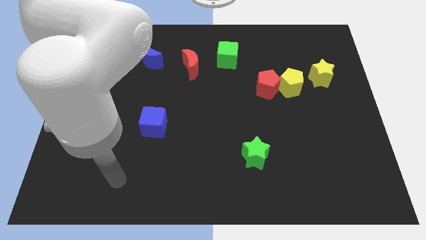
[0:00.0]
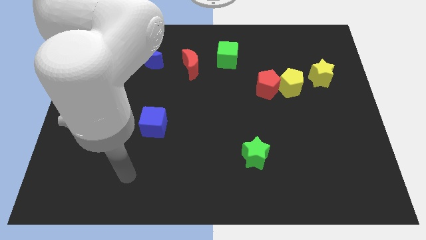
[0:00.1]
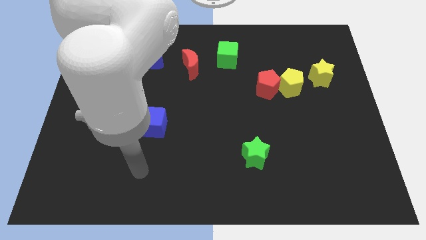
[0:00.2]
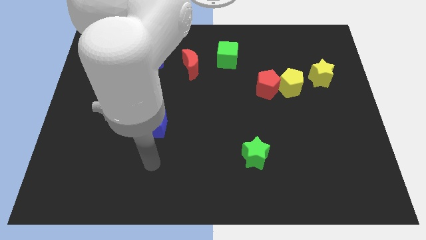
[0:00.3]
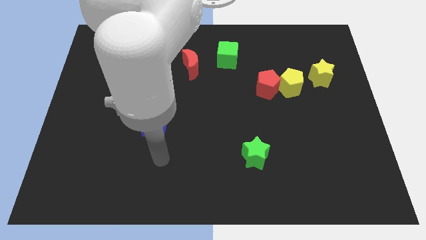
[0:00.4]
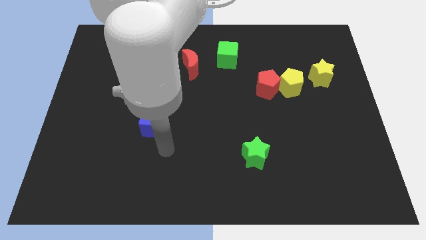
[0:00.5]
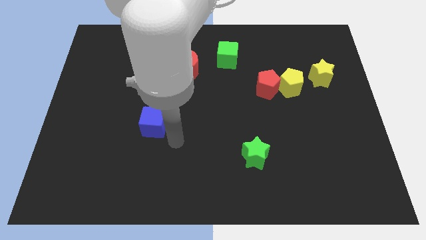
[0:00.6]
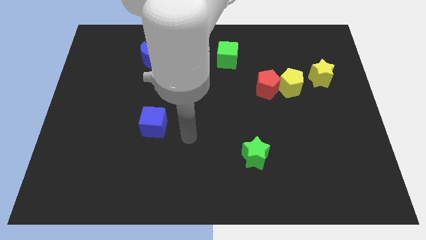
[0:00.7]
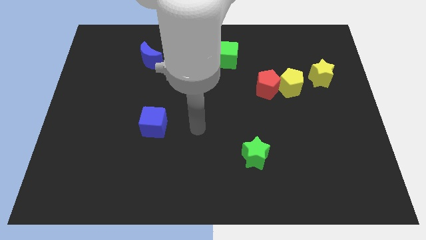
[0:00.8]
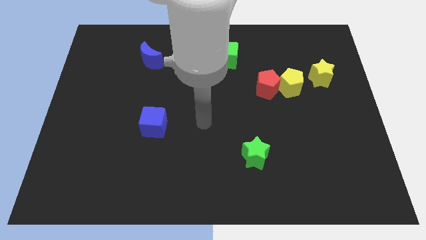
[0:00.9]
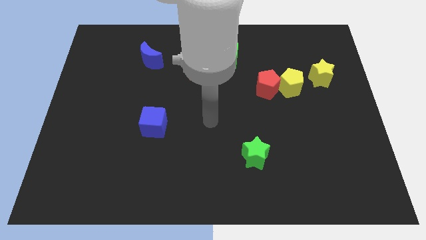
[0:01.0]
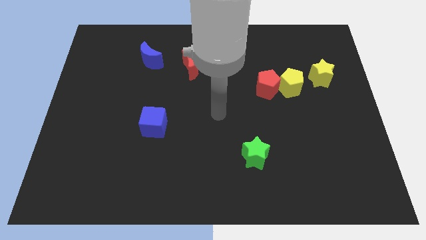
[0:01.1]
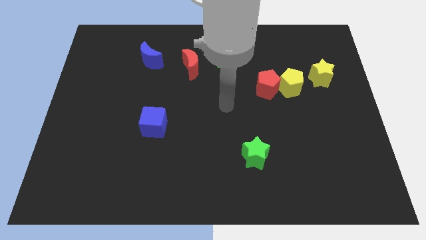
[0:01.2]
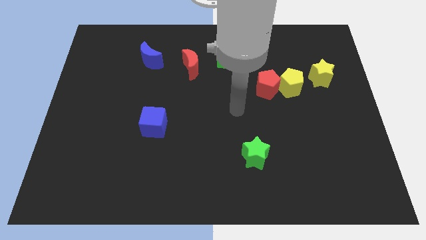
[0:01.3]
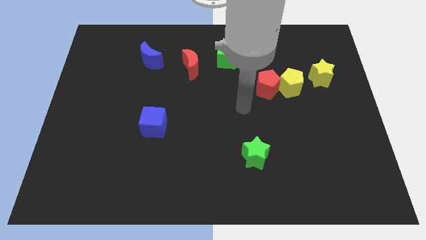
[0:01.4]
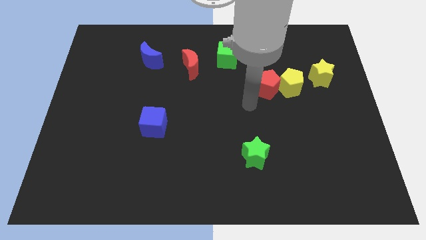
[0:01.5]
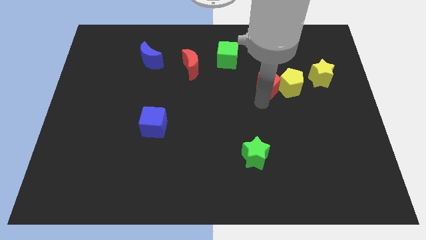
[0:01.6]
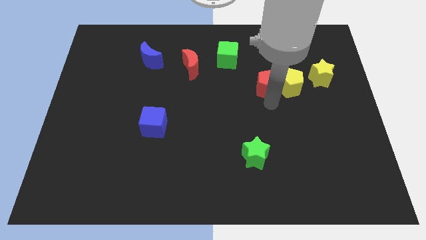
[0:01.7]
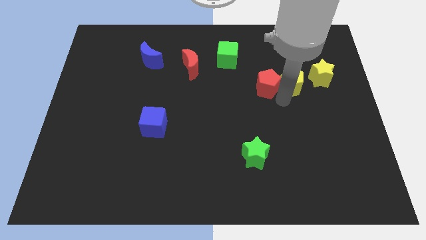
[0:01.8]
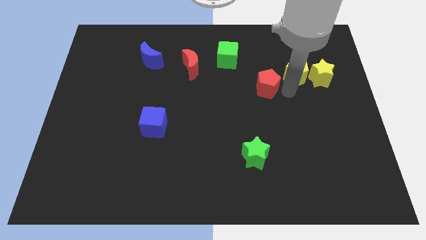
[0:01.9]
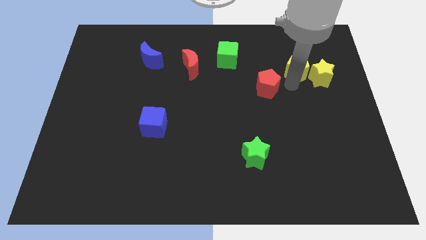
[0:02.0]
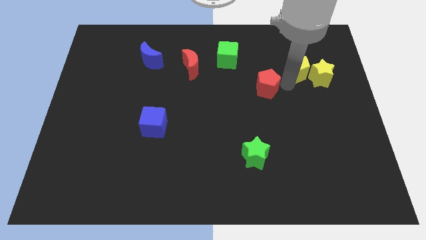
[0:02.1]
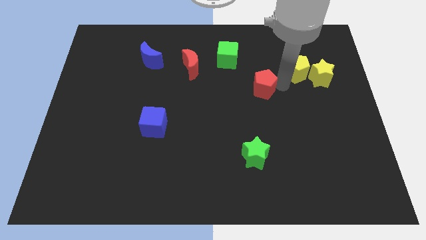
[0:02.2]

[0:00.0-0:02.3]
move the red pentagon away from the yellow pentagon

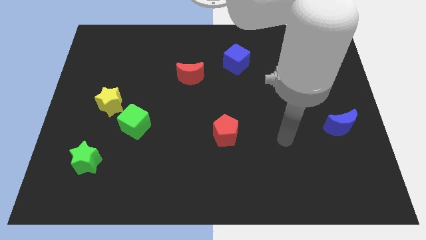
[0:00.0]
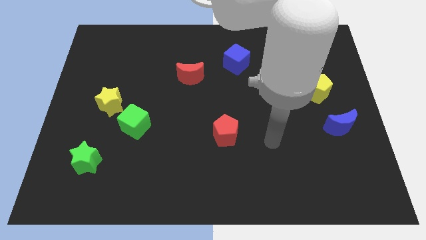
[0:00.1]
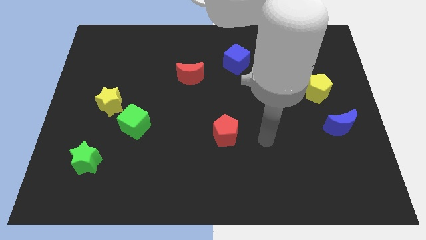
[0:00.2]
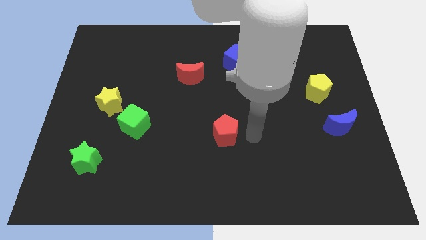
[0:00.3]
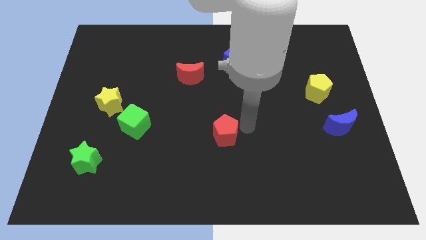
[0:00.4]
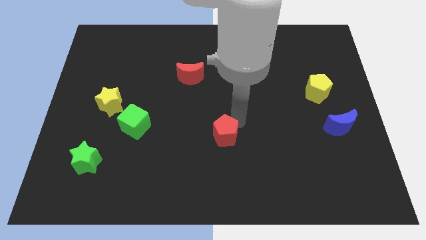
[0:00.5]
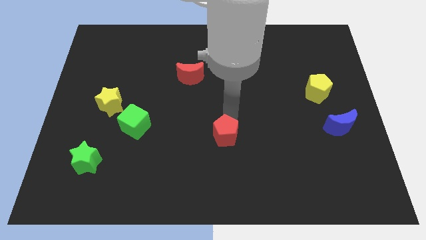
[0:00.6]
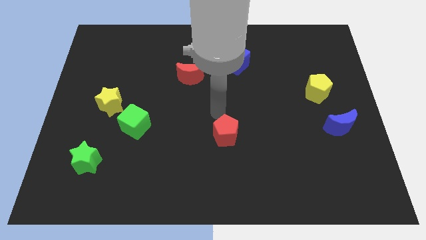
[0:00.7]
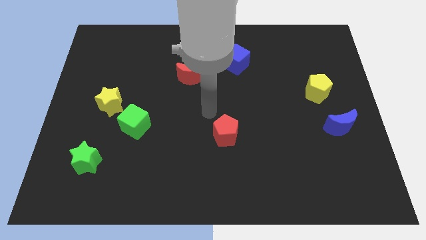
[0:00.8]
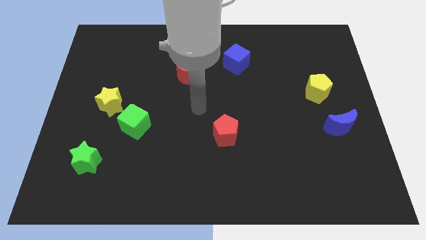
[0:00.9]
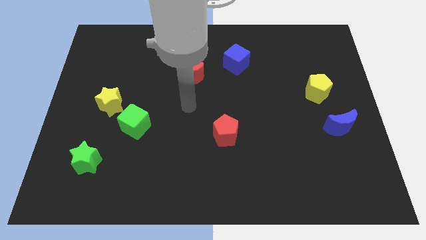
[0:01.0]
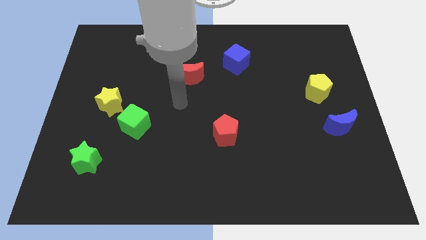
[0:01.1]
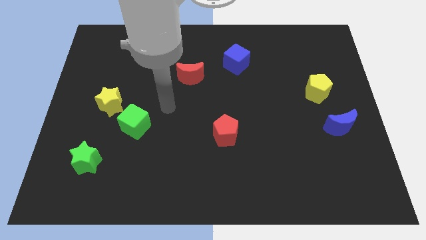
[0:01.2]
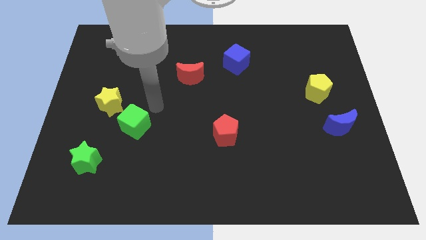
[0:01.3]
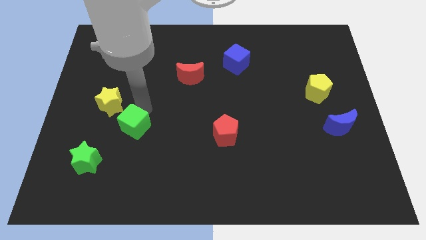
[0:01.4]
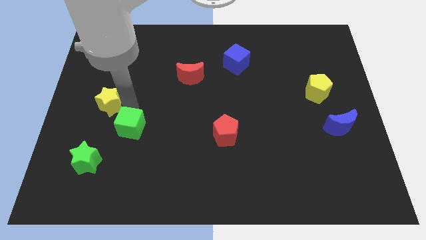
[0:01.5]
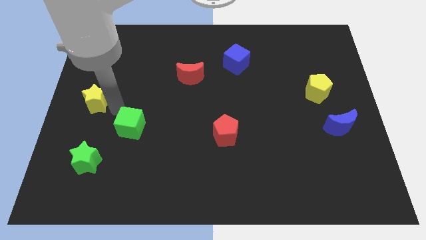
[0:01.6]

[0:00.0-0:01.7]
separate the green cube from the yellow star

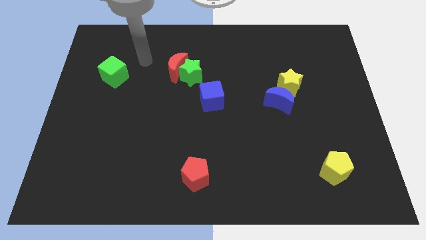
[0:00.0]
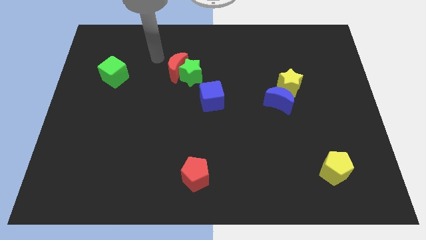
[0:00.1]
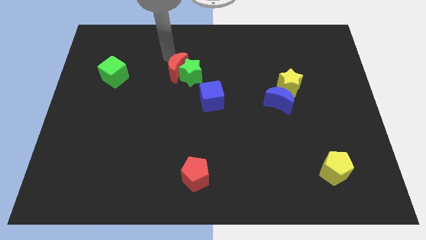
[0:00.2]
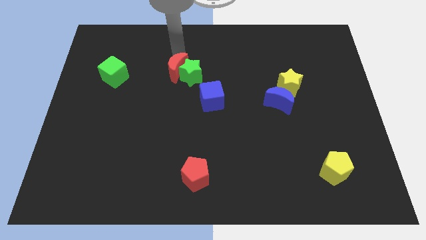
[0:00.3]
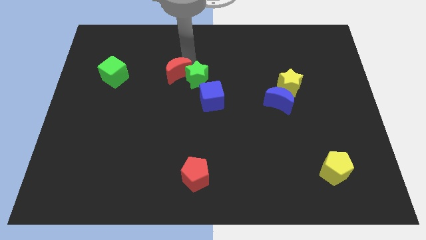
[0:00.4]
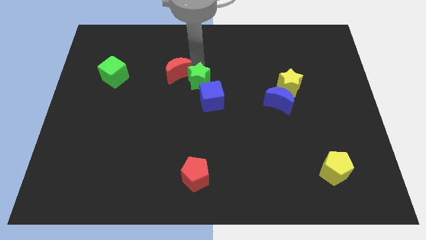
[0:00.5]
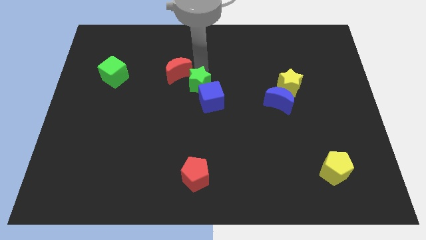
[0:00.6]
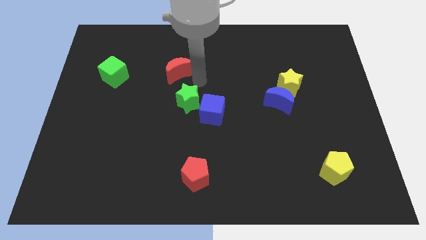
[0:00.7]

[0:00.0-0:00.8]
pull the red moon apart from the green star

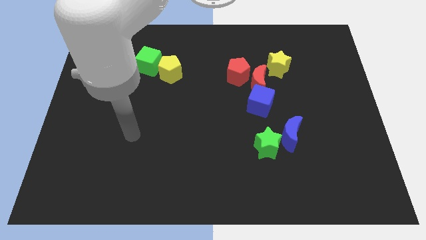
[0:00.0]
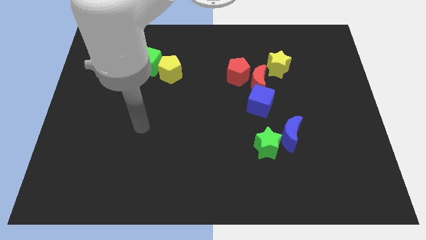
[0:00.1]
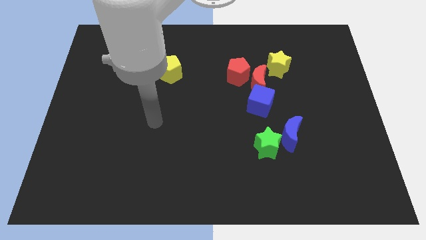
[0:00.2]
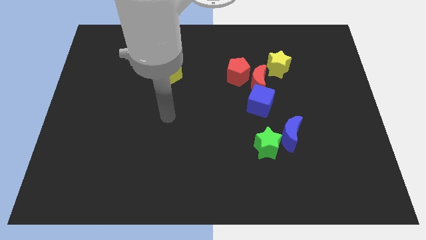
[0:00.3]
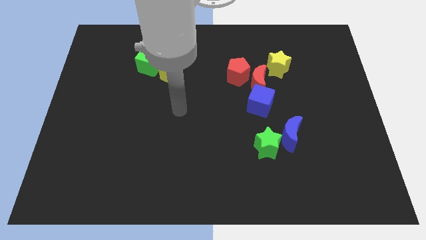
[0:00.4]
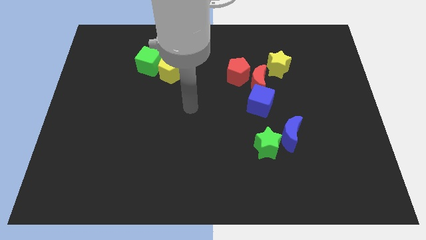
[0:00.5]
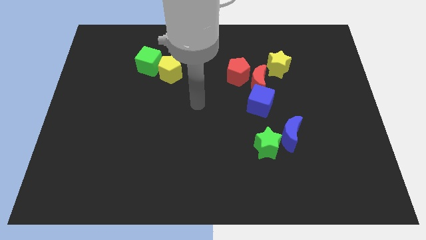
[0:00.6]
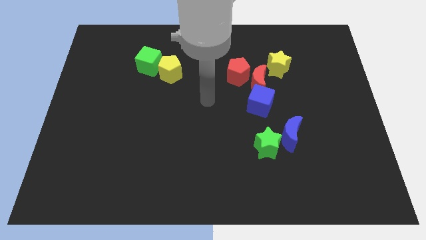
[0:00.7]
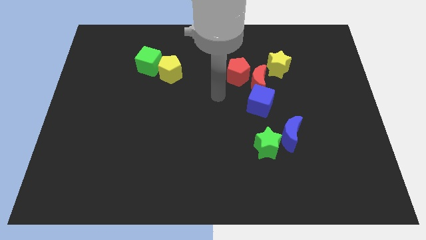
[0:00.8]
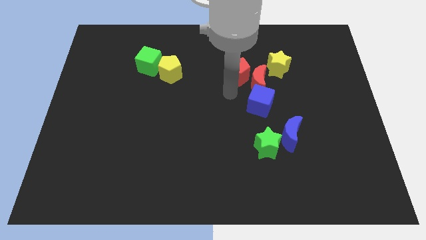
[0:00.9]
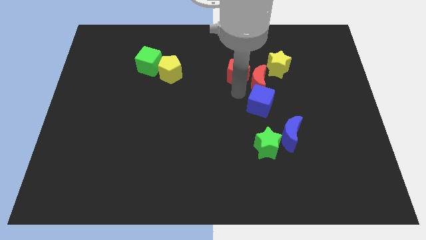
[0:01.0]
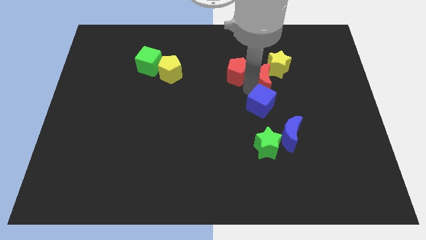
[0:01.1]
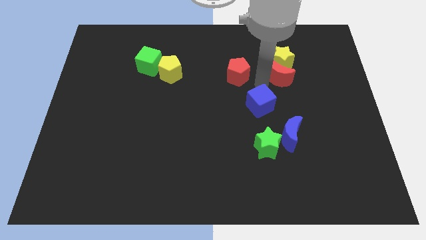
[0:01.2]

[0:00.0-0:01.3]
move the red pentagon away from the red moon

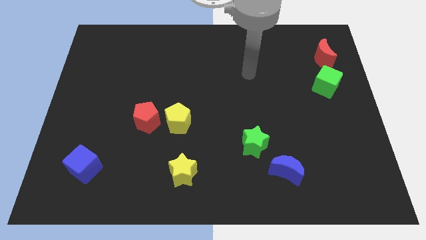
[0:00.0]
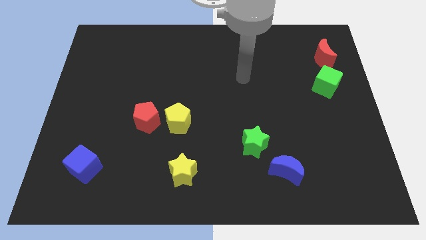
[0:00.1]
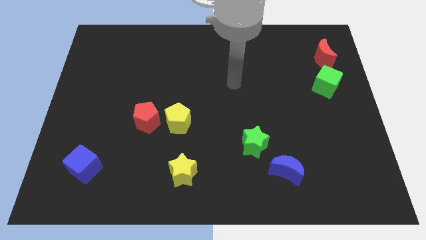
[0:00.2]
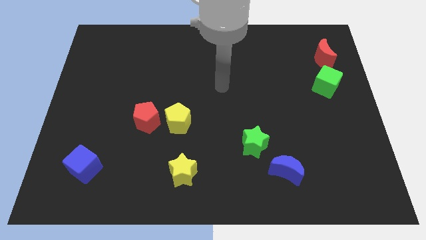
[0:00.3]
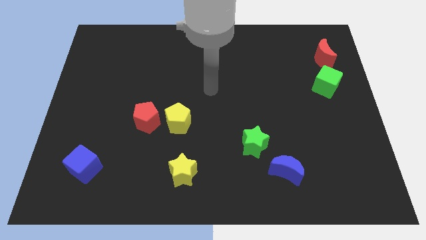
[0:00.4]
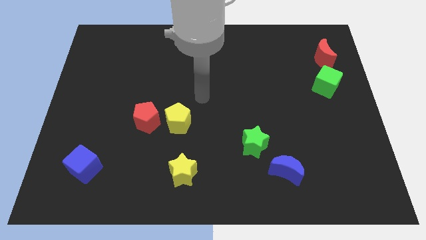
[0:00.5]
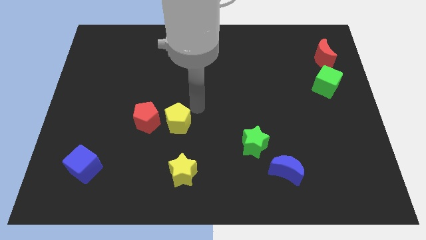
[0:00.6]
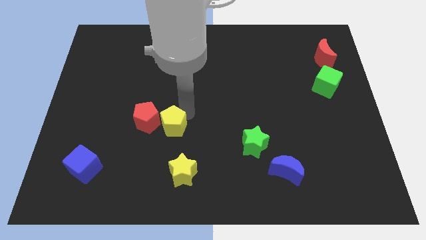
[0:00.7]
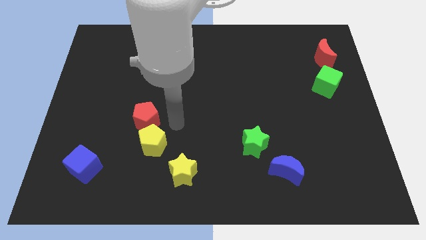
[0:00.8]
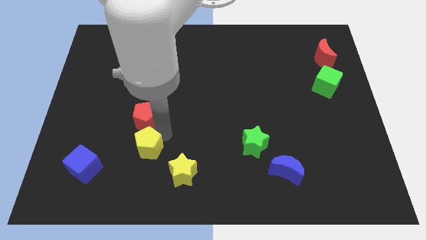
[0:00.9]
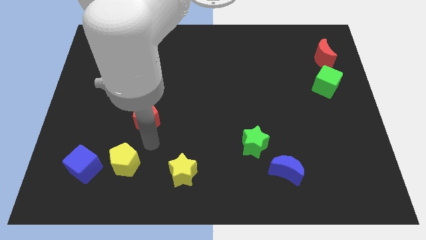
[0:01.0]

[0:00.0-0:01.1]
separate the red pentagon from the yellow pentagon

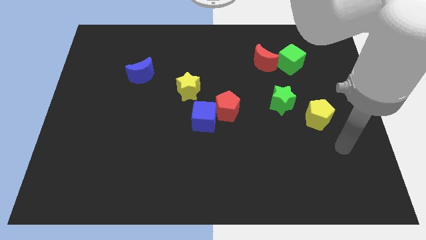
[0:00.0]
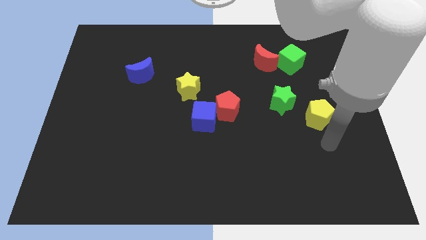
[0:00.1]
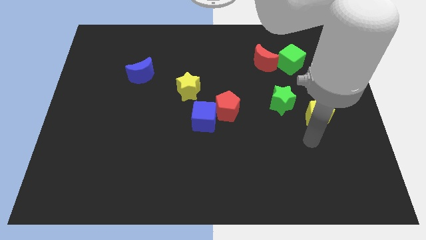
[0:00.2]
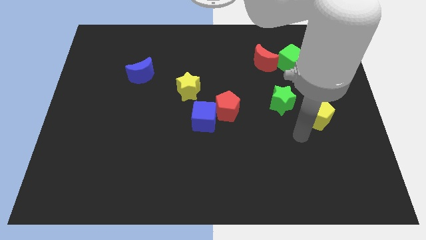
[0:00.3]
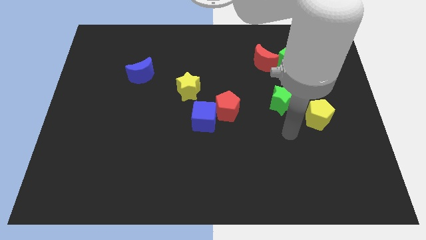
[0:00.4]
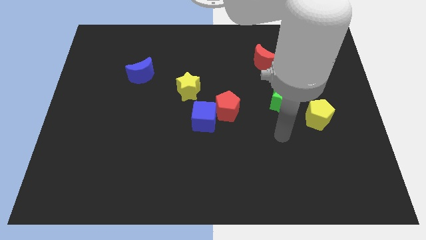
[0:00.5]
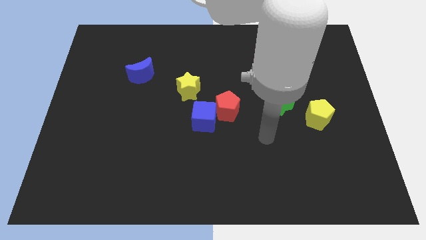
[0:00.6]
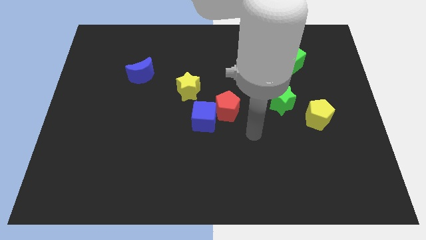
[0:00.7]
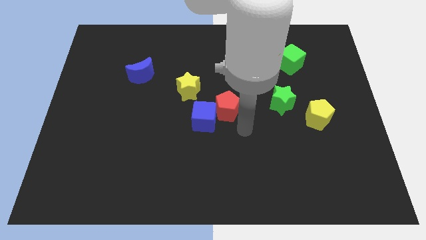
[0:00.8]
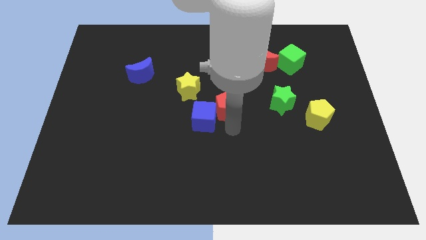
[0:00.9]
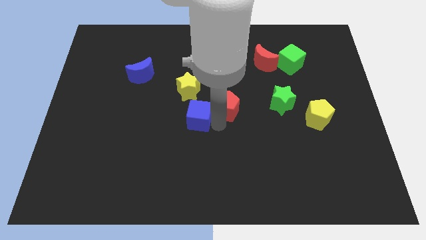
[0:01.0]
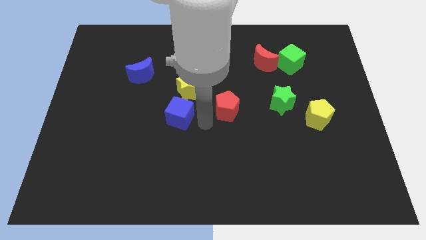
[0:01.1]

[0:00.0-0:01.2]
pull the red pentagon apart from the blue cube

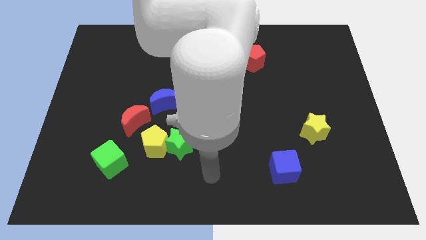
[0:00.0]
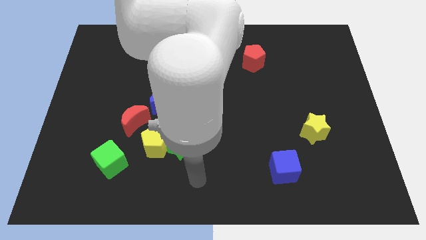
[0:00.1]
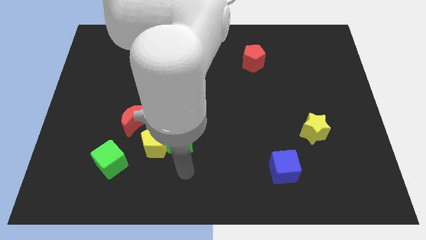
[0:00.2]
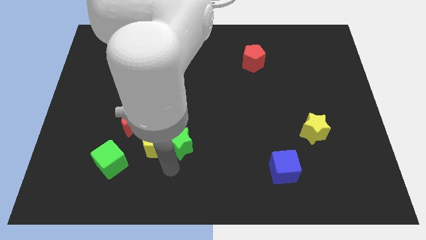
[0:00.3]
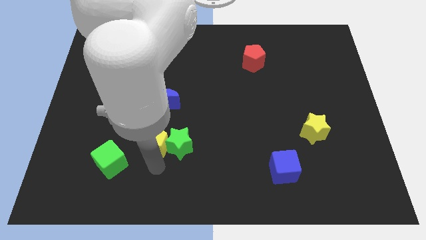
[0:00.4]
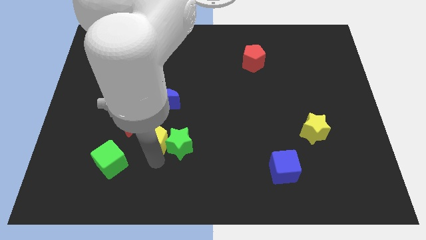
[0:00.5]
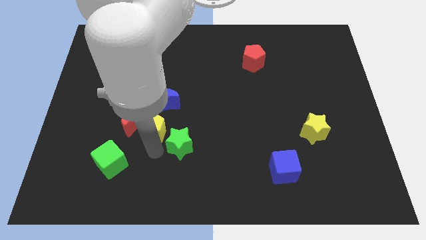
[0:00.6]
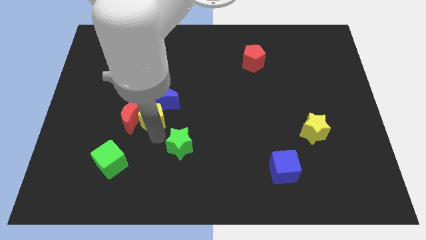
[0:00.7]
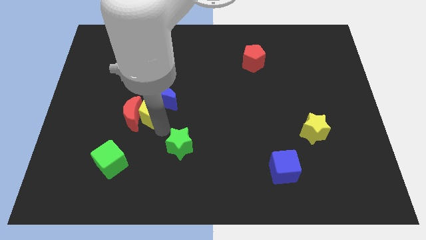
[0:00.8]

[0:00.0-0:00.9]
move the green star away from the yellow pentagon
